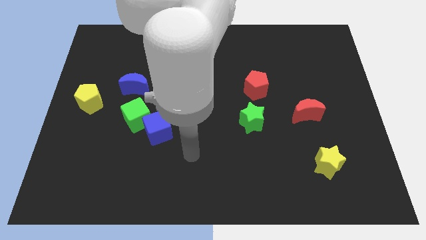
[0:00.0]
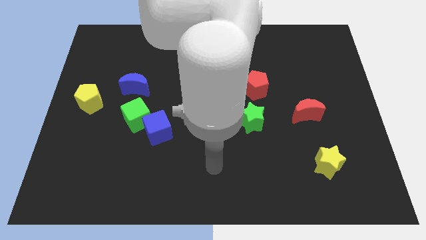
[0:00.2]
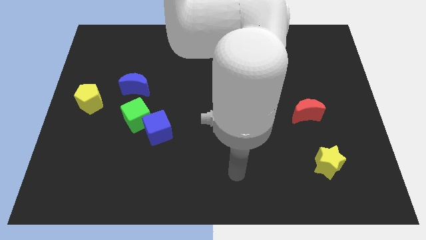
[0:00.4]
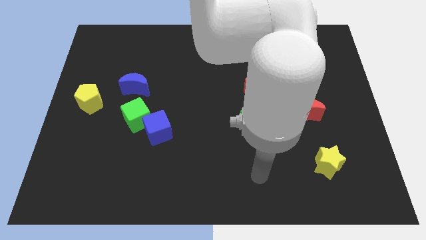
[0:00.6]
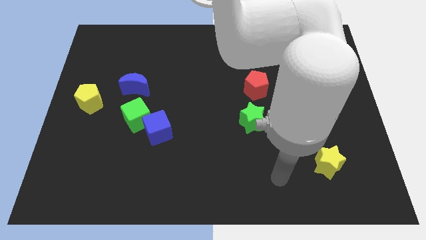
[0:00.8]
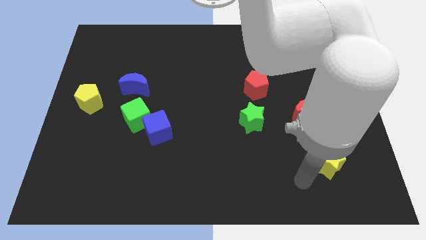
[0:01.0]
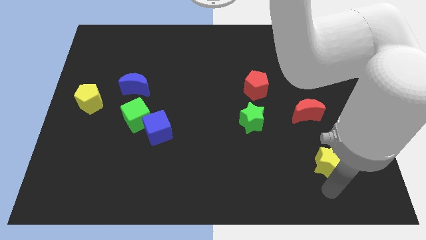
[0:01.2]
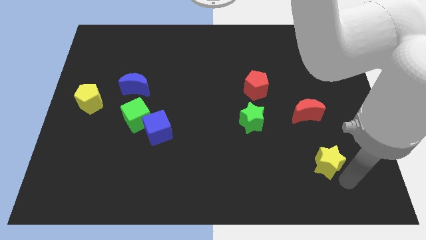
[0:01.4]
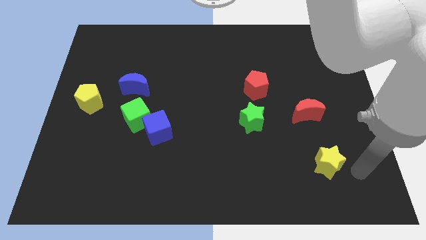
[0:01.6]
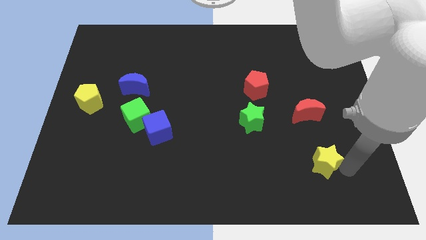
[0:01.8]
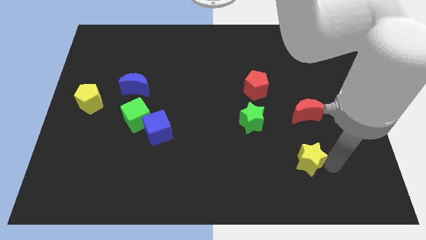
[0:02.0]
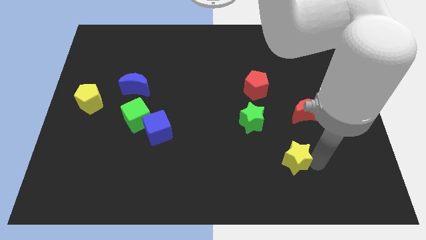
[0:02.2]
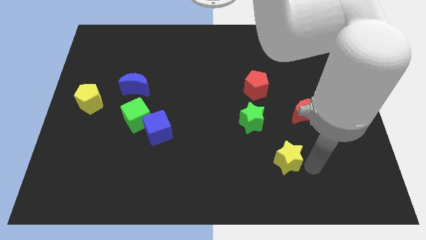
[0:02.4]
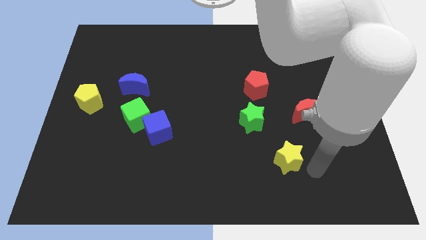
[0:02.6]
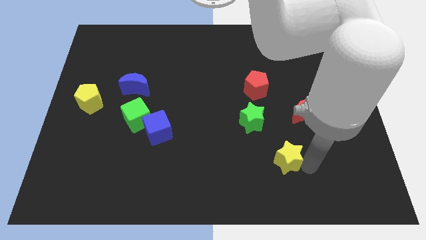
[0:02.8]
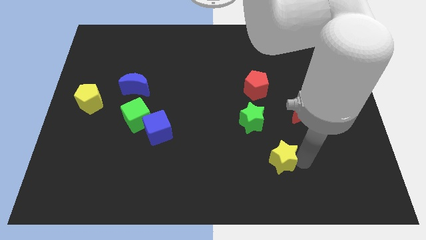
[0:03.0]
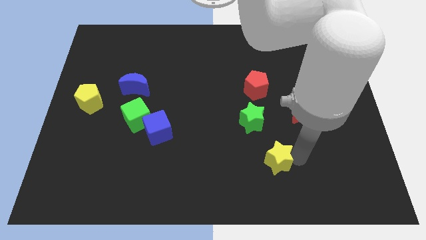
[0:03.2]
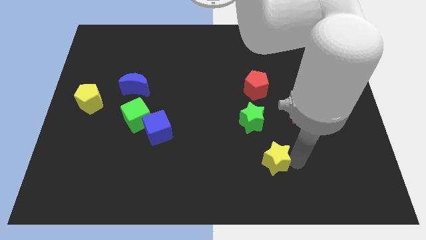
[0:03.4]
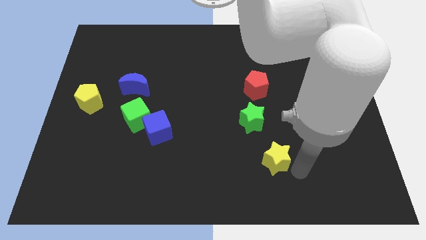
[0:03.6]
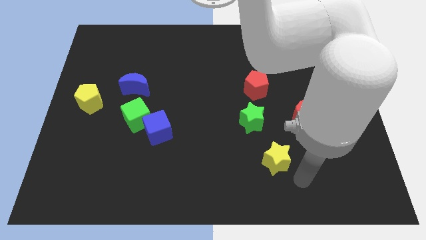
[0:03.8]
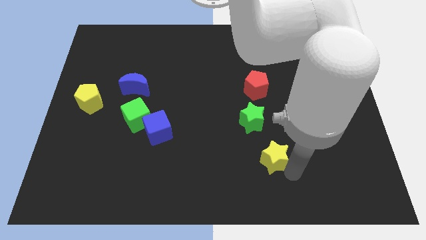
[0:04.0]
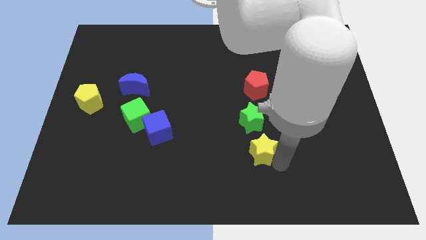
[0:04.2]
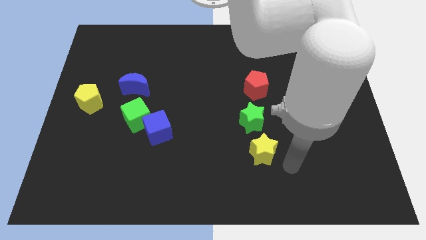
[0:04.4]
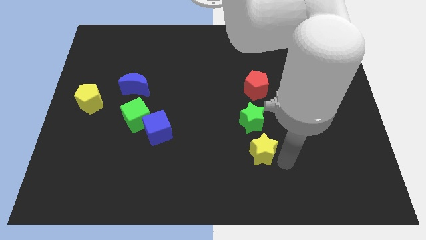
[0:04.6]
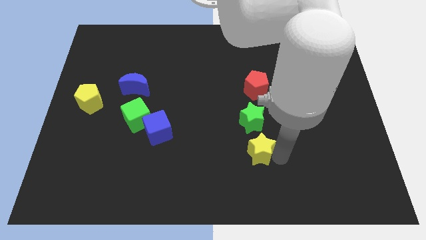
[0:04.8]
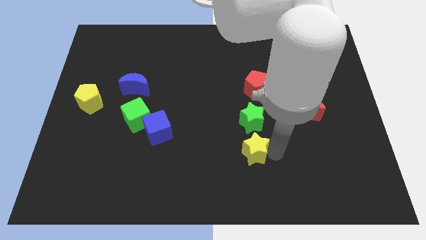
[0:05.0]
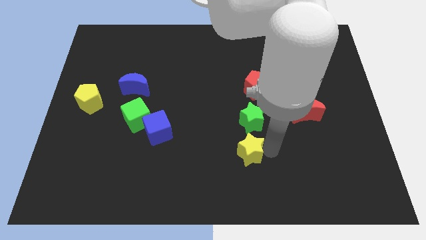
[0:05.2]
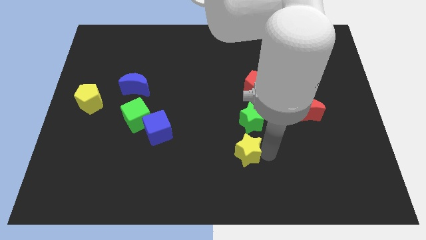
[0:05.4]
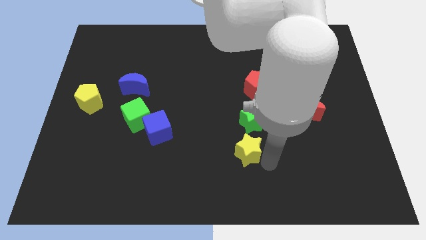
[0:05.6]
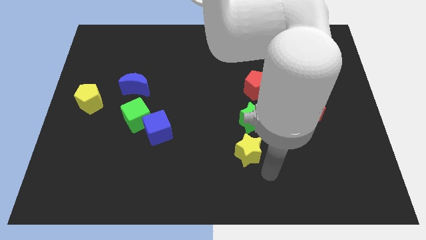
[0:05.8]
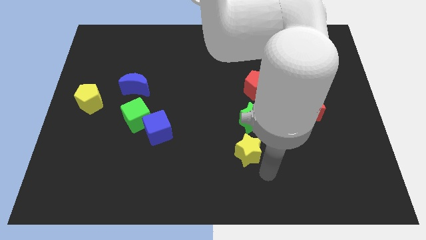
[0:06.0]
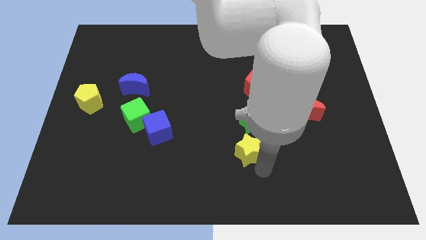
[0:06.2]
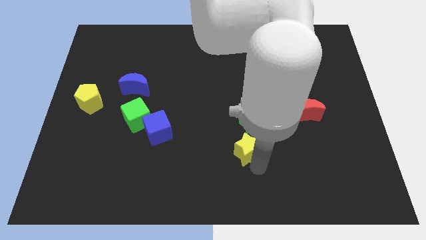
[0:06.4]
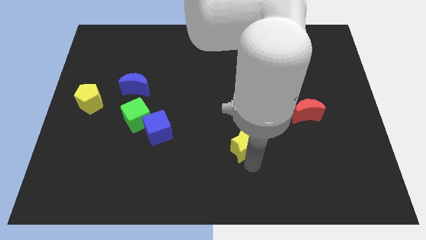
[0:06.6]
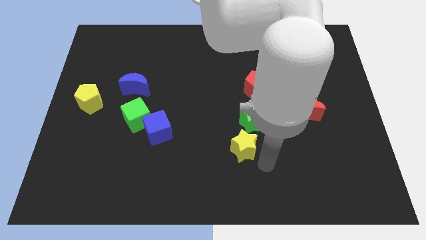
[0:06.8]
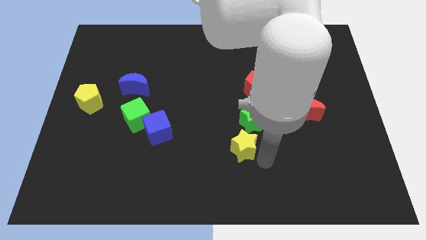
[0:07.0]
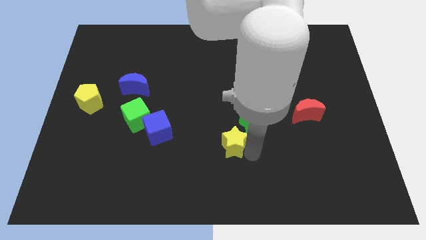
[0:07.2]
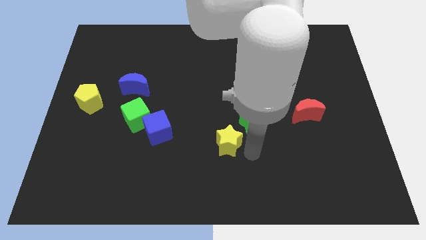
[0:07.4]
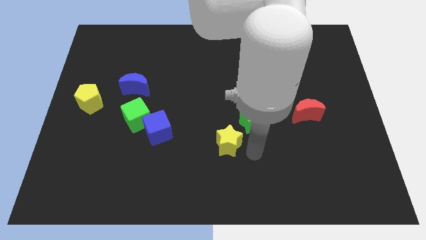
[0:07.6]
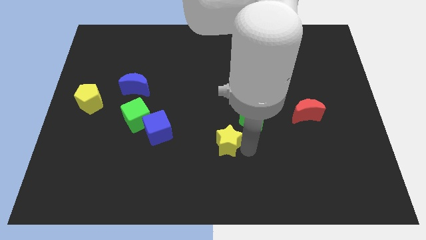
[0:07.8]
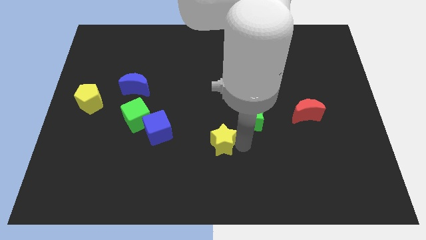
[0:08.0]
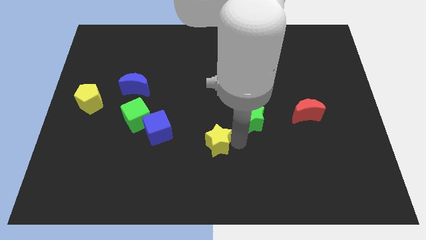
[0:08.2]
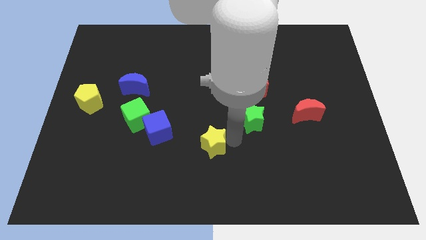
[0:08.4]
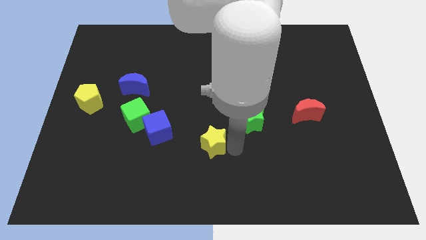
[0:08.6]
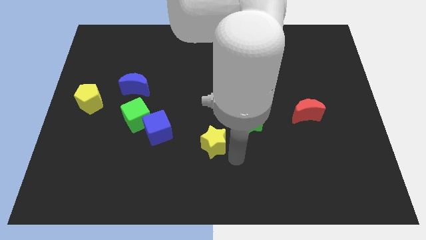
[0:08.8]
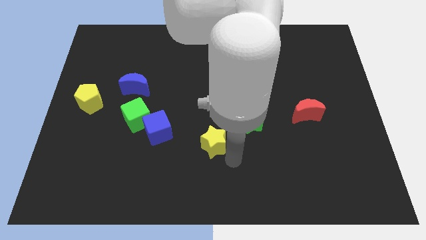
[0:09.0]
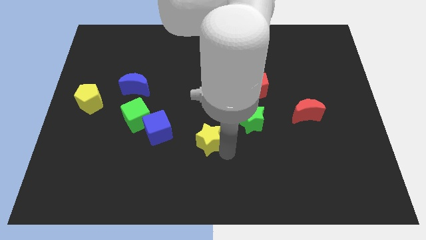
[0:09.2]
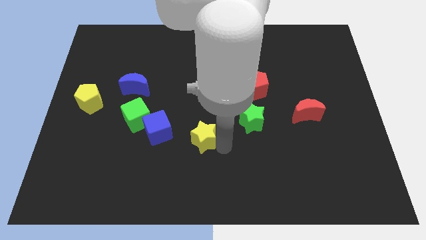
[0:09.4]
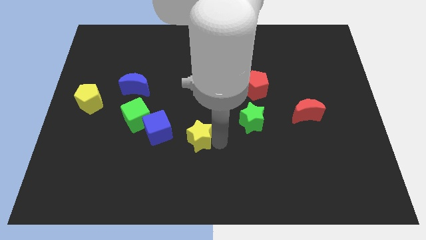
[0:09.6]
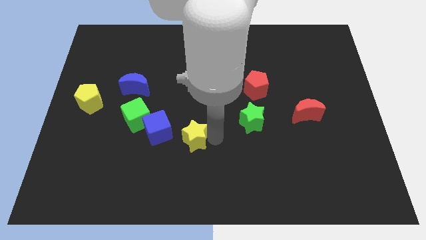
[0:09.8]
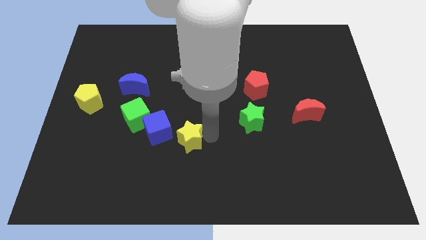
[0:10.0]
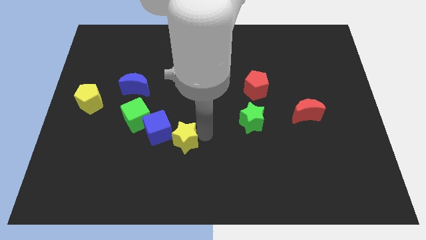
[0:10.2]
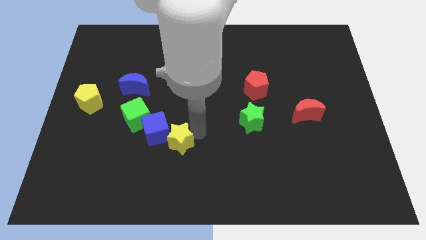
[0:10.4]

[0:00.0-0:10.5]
put the yellow star close to the blue cube

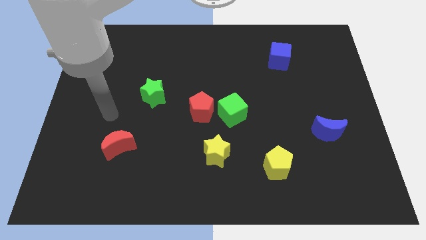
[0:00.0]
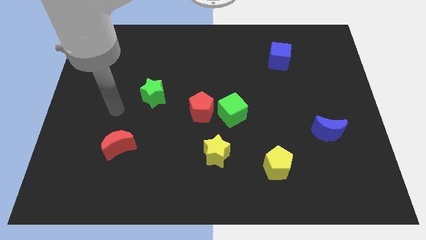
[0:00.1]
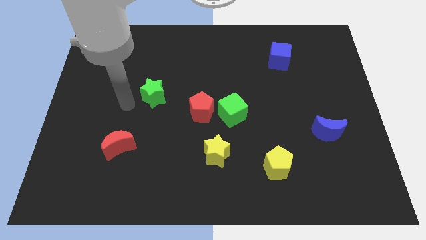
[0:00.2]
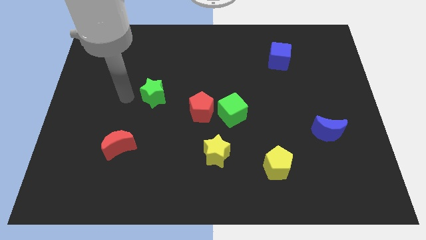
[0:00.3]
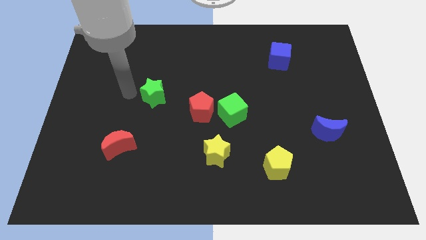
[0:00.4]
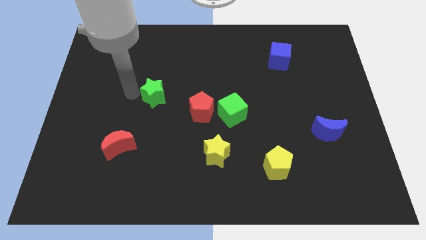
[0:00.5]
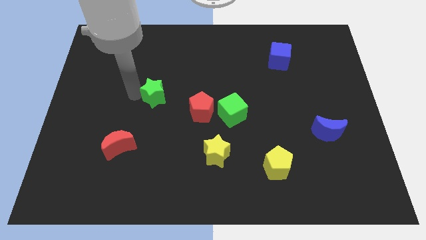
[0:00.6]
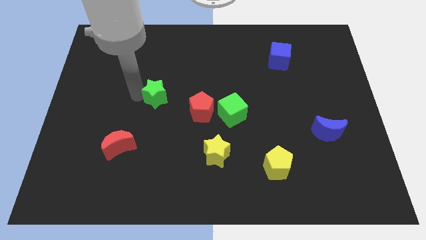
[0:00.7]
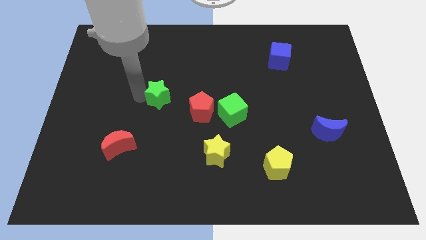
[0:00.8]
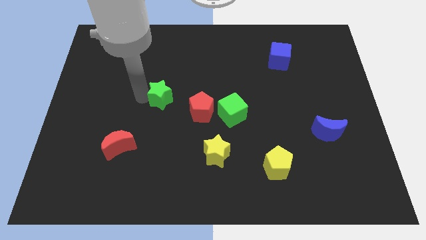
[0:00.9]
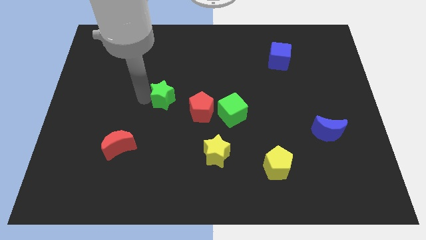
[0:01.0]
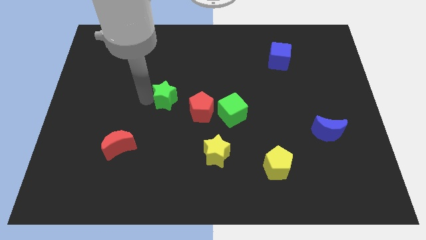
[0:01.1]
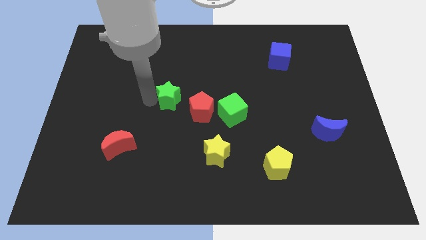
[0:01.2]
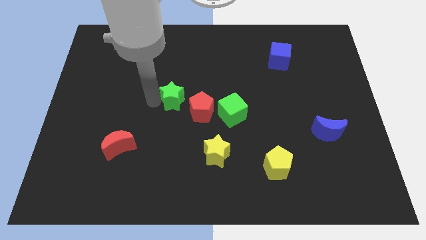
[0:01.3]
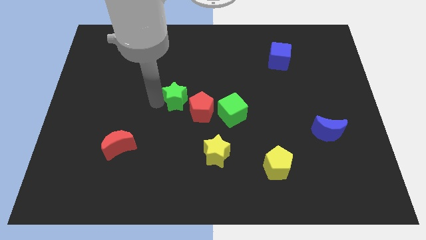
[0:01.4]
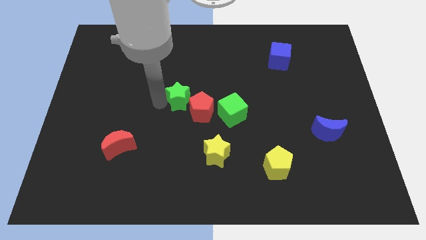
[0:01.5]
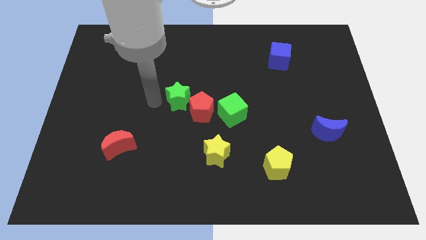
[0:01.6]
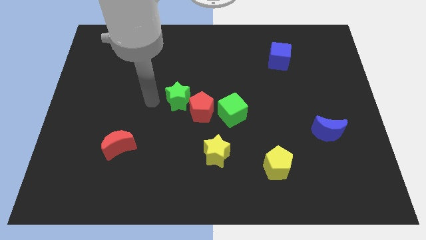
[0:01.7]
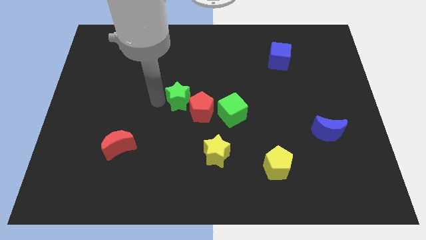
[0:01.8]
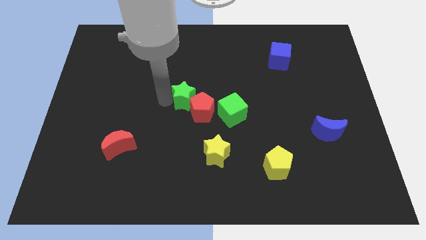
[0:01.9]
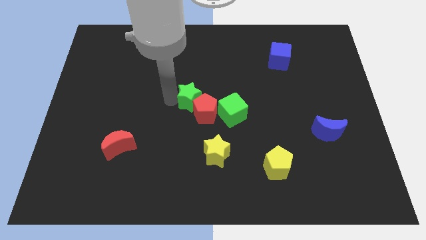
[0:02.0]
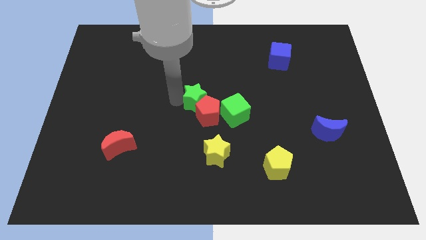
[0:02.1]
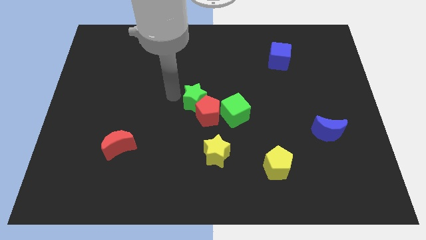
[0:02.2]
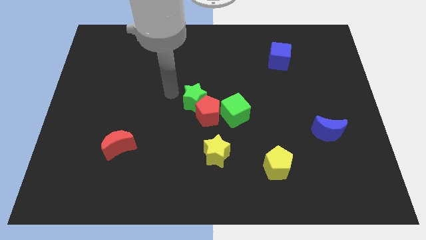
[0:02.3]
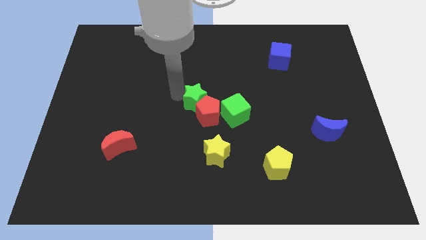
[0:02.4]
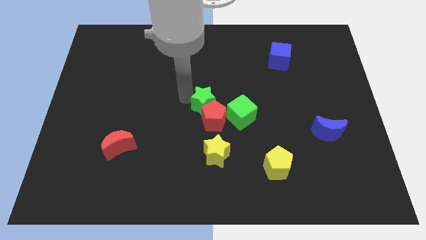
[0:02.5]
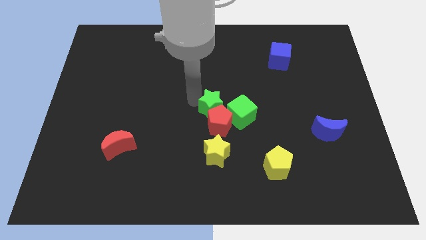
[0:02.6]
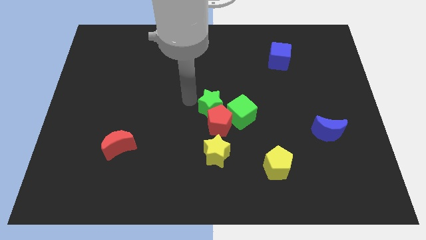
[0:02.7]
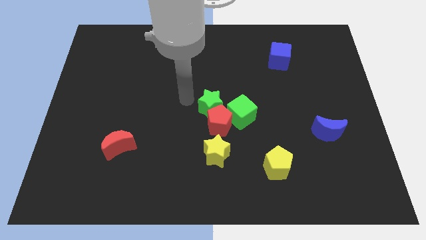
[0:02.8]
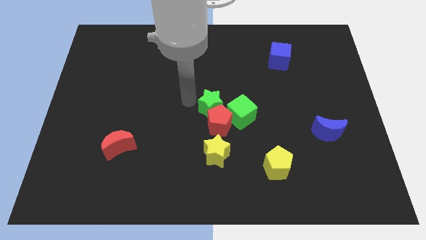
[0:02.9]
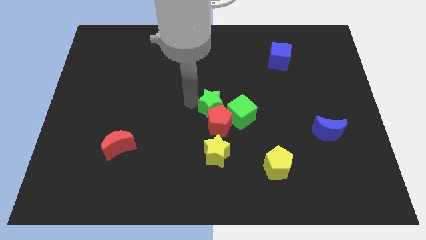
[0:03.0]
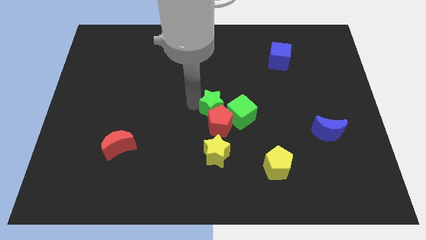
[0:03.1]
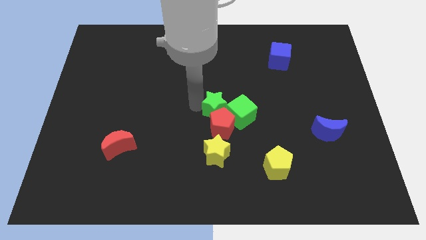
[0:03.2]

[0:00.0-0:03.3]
put the green star close to the green cube
